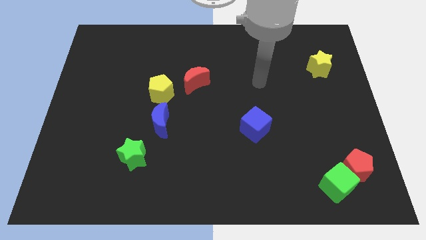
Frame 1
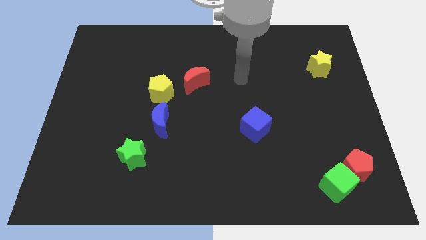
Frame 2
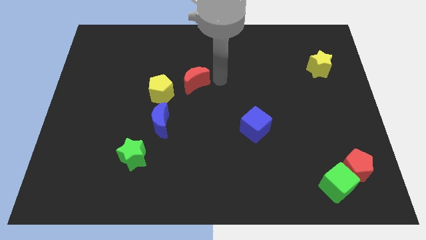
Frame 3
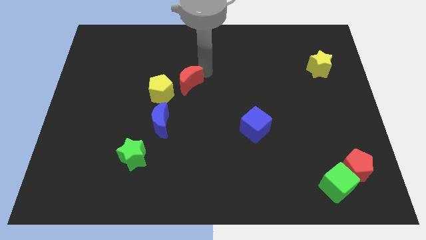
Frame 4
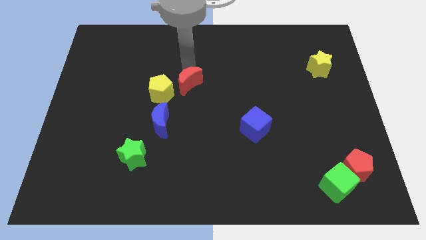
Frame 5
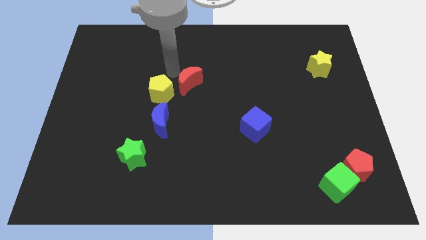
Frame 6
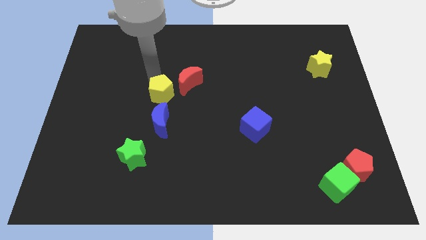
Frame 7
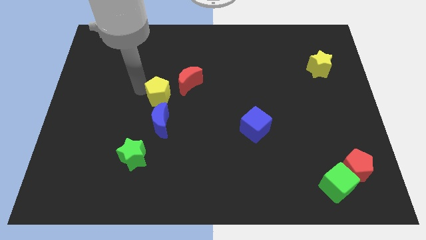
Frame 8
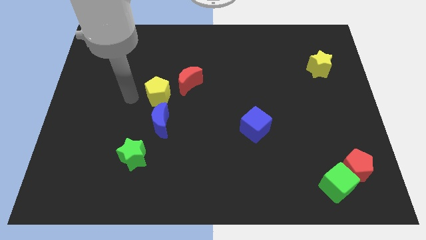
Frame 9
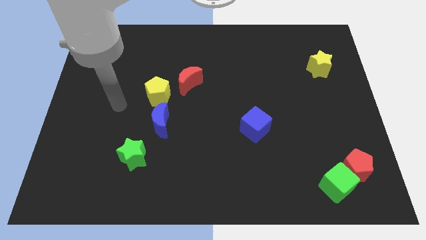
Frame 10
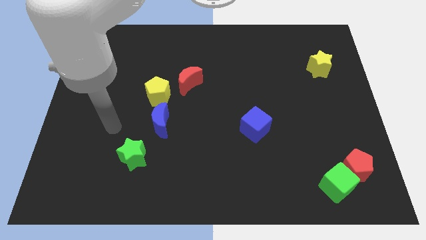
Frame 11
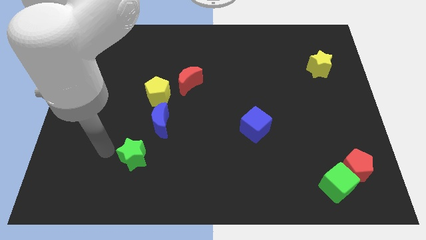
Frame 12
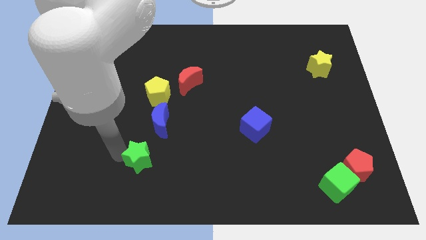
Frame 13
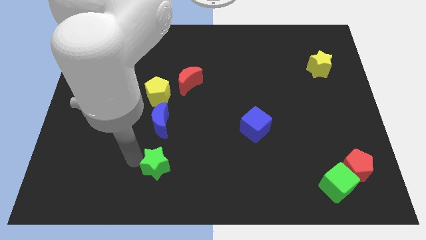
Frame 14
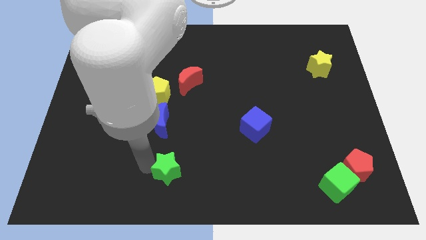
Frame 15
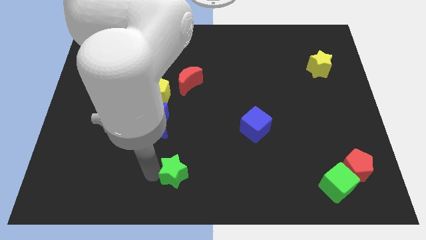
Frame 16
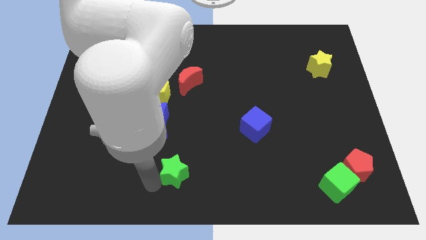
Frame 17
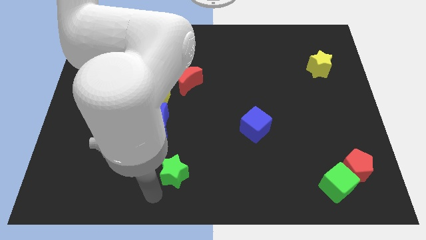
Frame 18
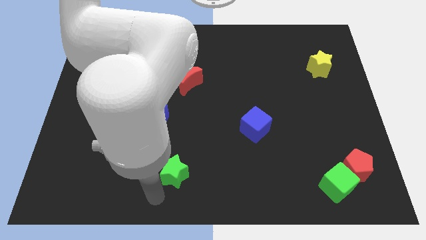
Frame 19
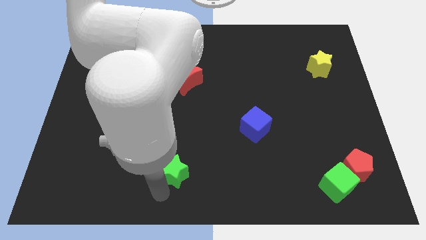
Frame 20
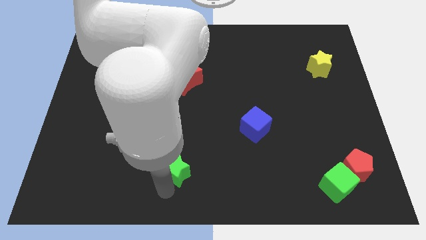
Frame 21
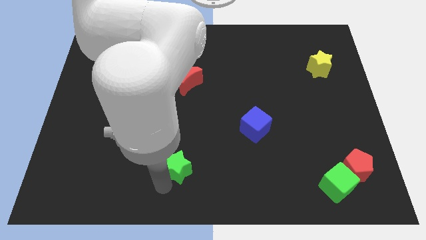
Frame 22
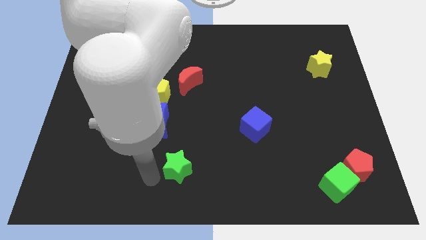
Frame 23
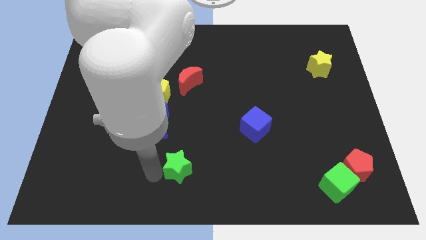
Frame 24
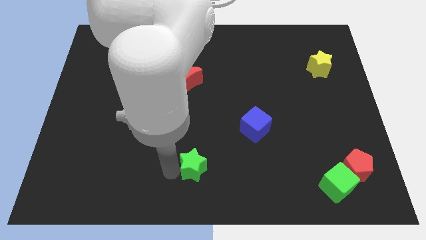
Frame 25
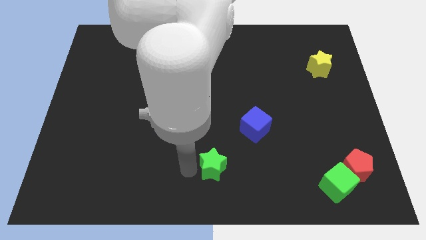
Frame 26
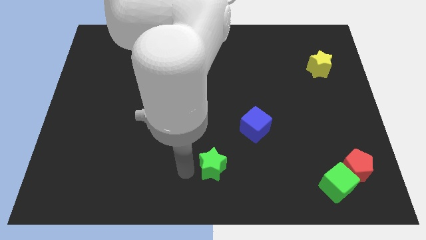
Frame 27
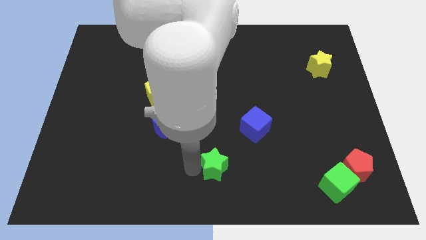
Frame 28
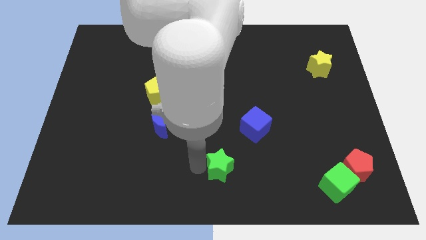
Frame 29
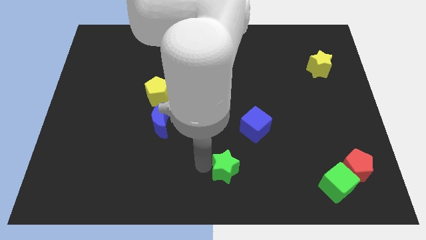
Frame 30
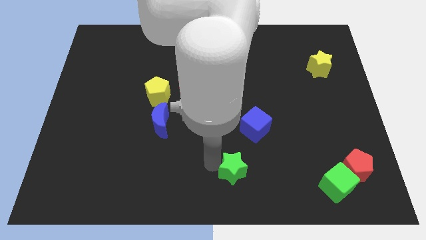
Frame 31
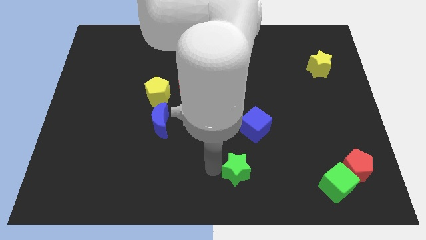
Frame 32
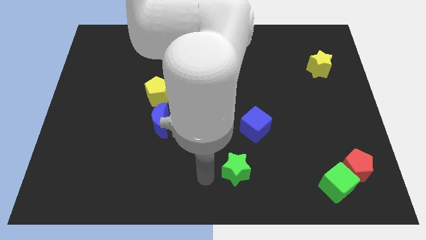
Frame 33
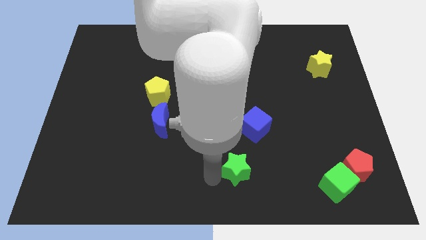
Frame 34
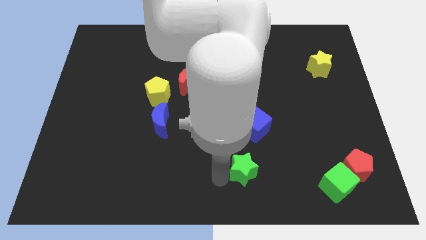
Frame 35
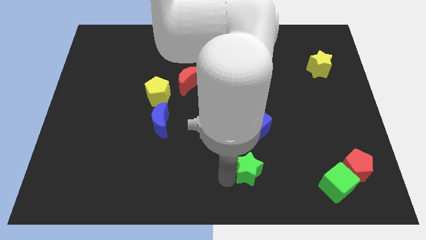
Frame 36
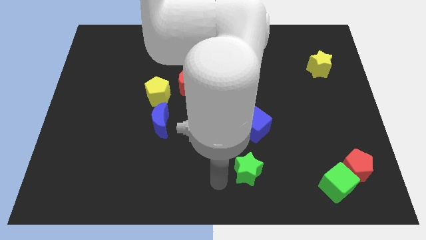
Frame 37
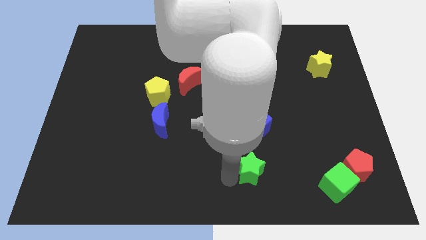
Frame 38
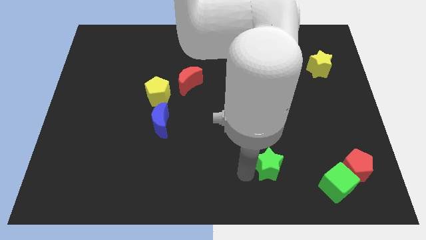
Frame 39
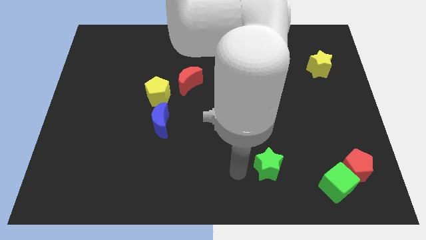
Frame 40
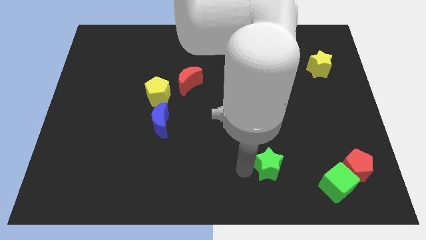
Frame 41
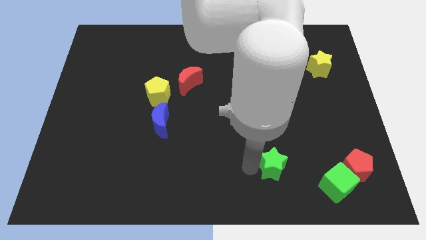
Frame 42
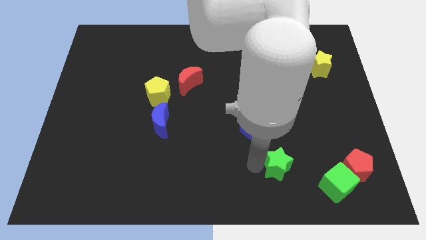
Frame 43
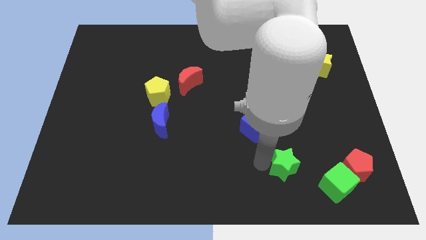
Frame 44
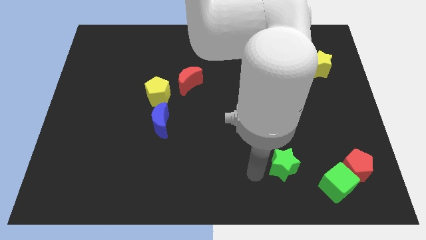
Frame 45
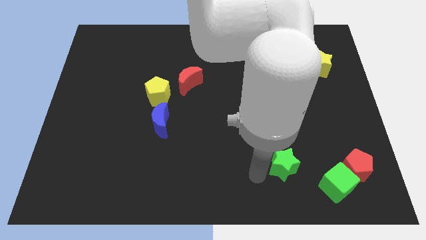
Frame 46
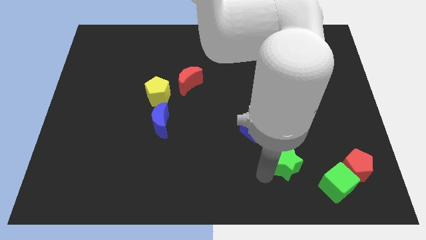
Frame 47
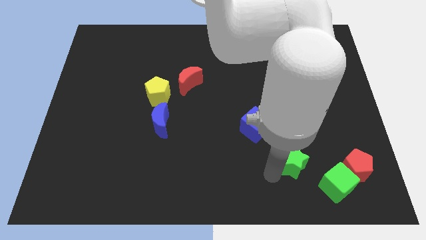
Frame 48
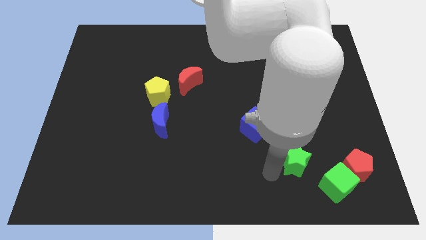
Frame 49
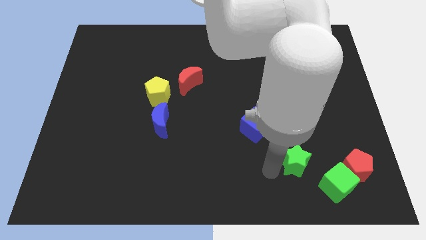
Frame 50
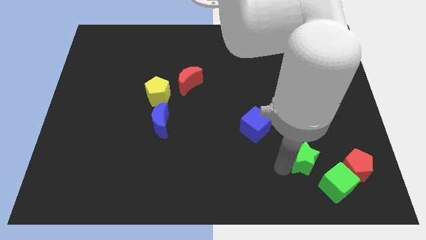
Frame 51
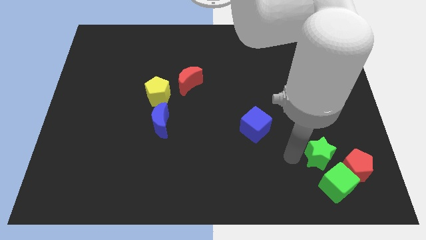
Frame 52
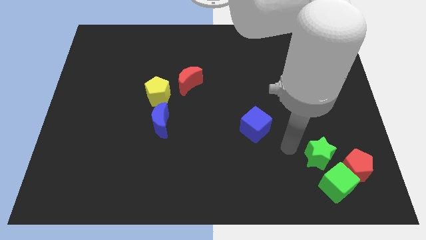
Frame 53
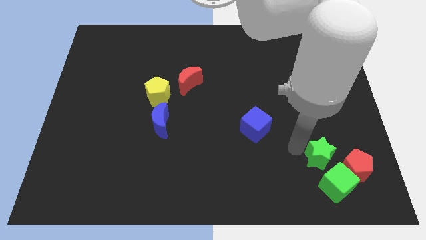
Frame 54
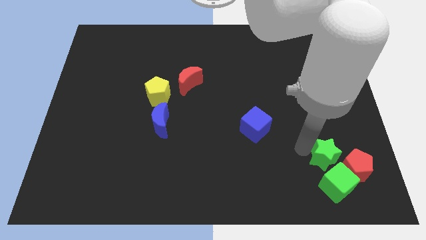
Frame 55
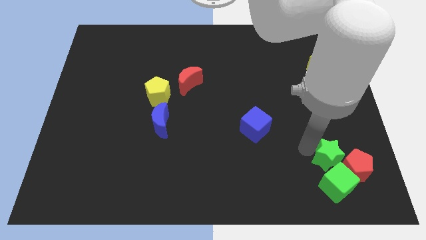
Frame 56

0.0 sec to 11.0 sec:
push the green star towards the red pentagon

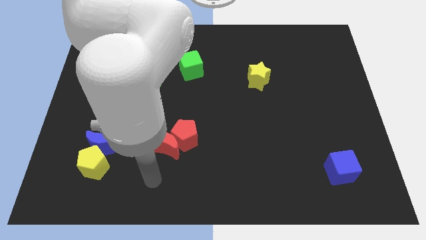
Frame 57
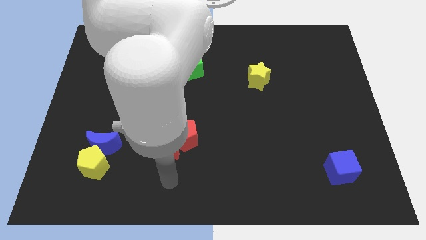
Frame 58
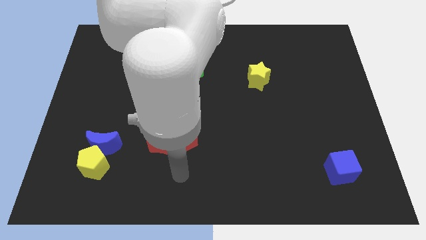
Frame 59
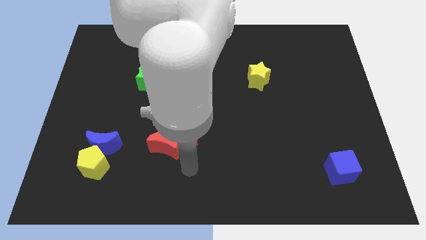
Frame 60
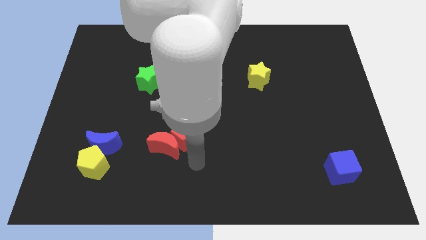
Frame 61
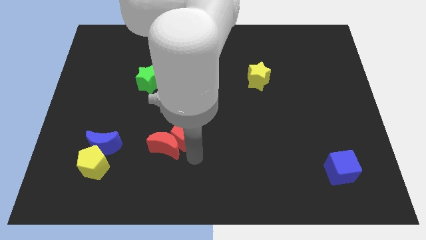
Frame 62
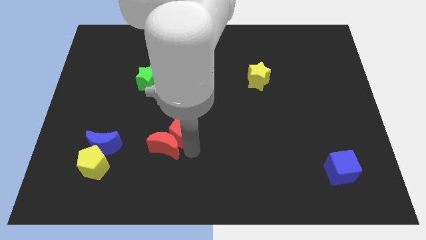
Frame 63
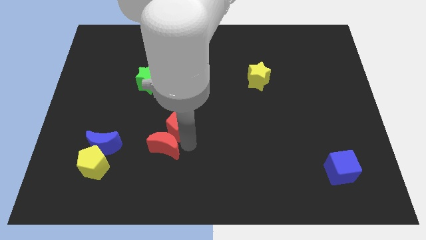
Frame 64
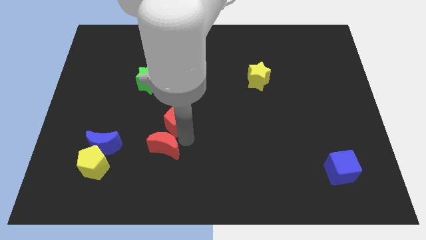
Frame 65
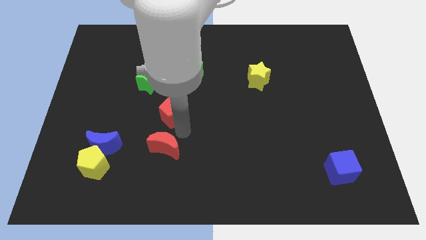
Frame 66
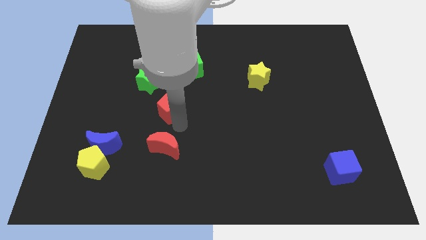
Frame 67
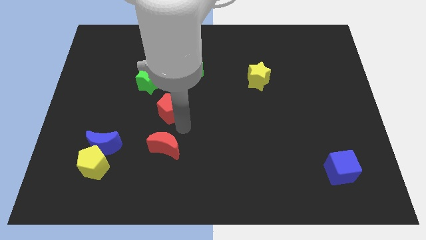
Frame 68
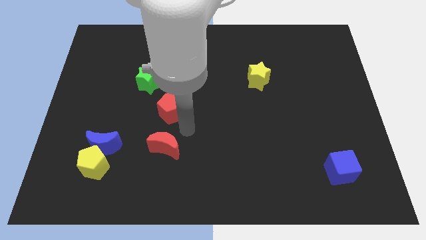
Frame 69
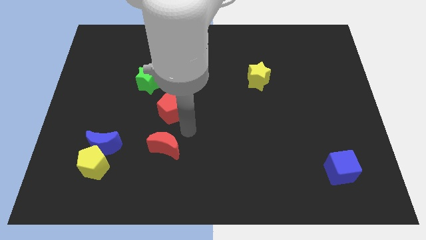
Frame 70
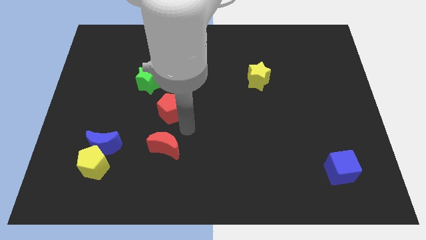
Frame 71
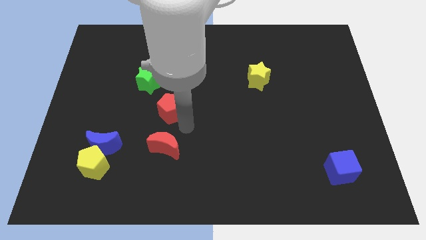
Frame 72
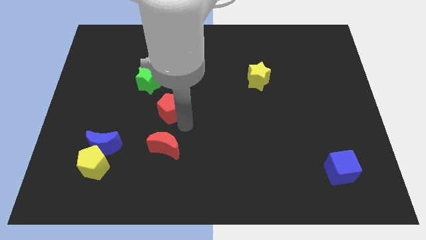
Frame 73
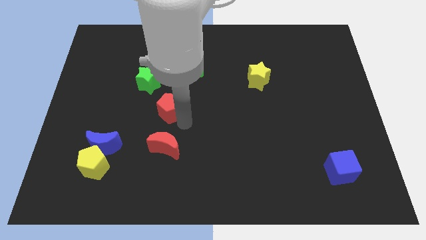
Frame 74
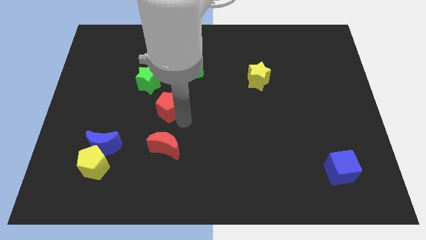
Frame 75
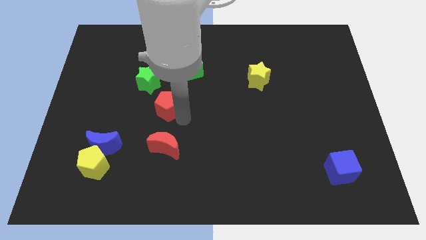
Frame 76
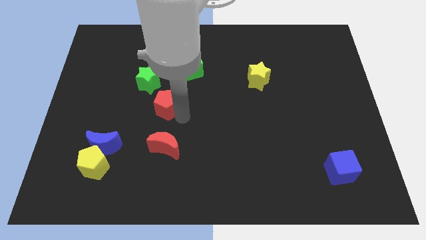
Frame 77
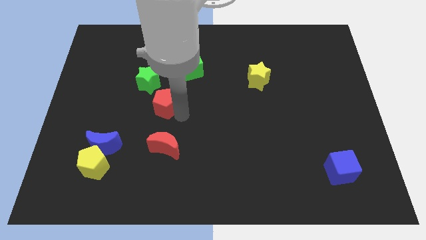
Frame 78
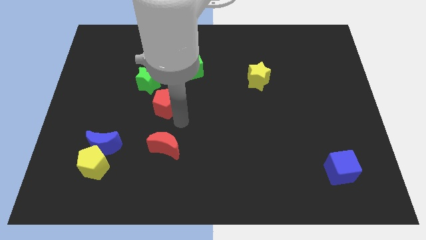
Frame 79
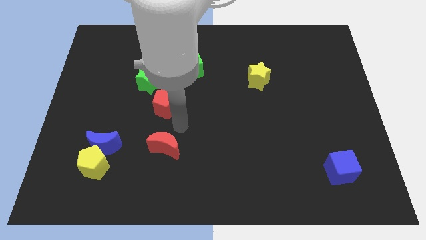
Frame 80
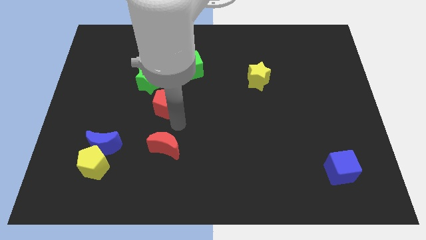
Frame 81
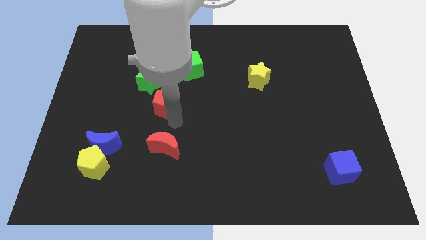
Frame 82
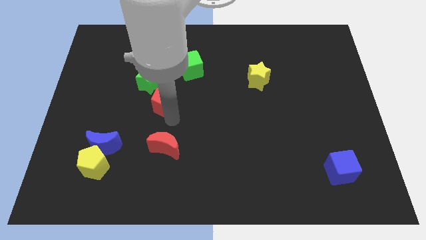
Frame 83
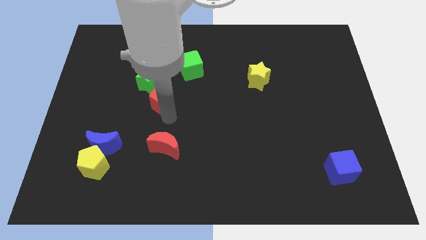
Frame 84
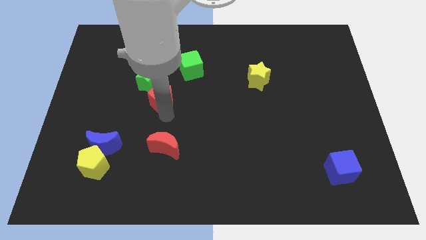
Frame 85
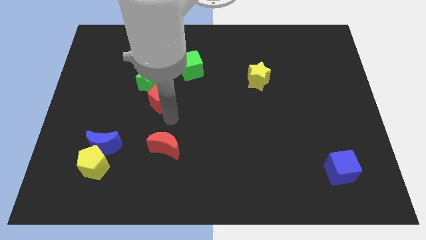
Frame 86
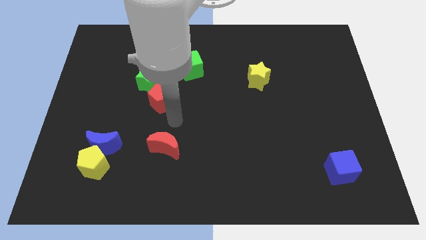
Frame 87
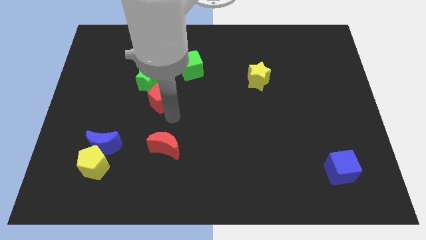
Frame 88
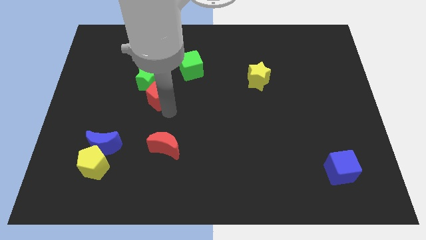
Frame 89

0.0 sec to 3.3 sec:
move the red pentagon next to the green star
